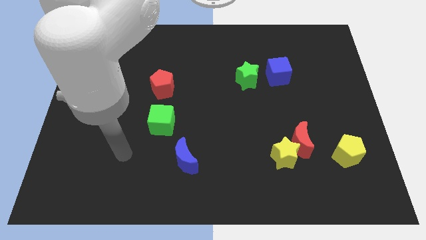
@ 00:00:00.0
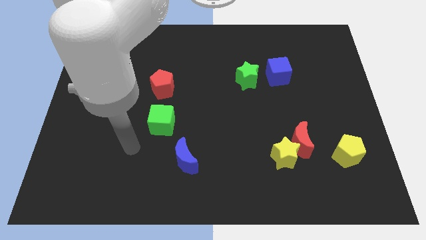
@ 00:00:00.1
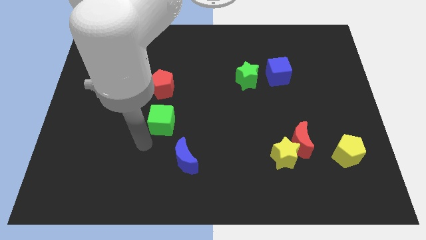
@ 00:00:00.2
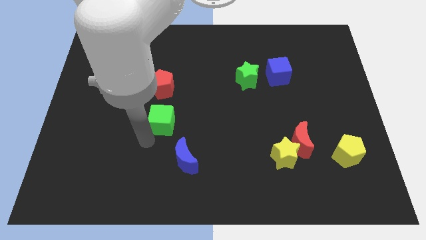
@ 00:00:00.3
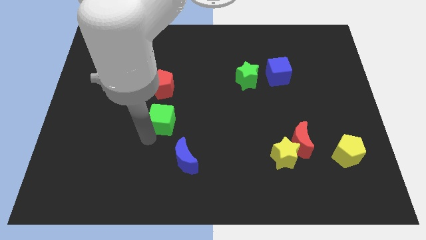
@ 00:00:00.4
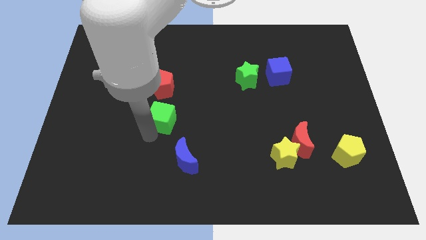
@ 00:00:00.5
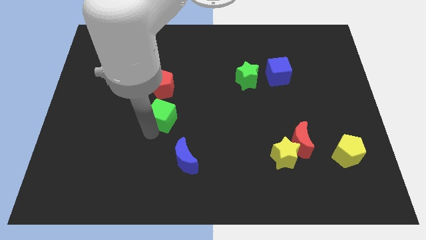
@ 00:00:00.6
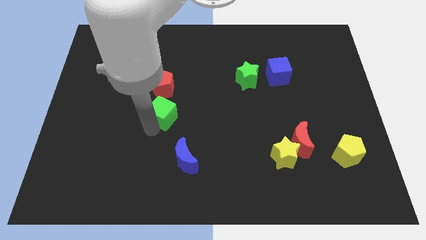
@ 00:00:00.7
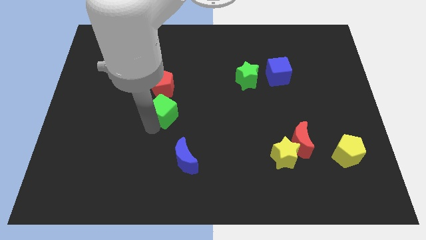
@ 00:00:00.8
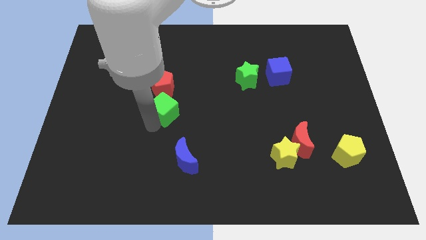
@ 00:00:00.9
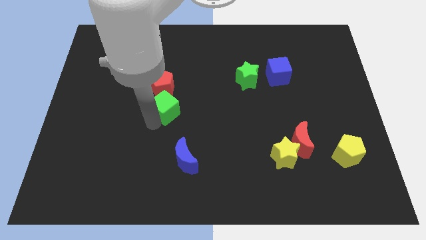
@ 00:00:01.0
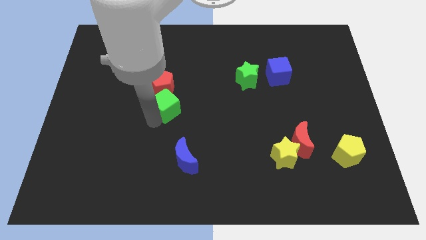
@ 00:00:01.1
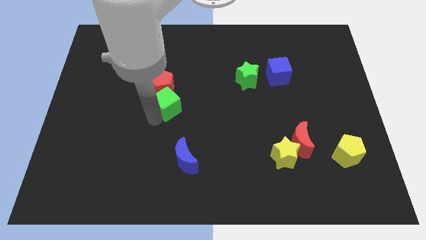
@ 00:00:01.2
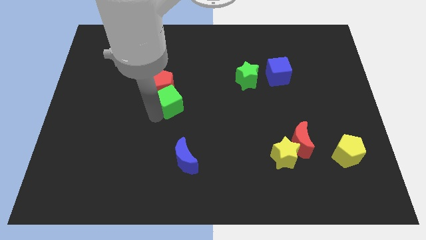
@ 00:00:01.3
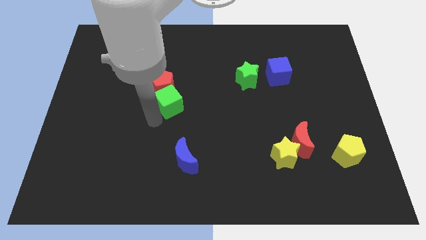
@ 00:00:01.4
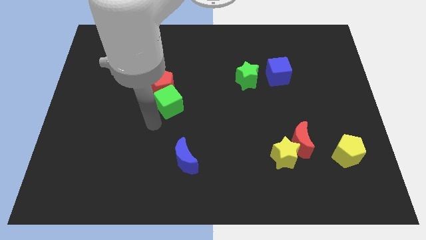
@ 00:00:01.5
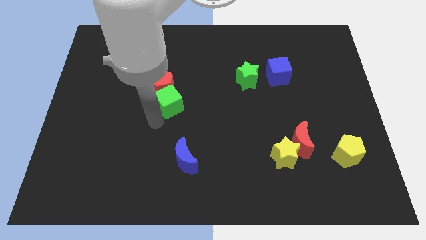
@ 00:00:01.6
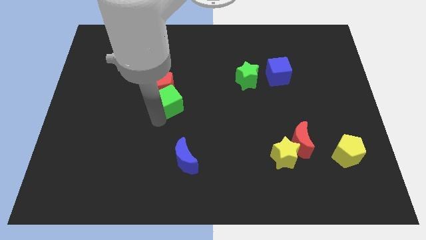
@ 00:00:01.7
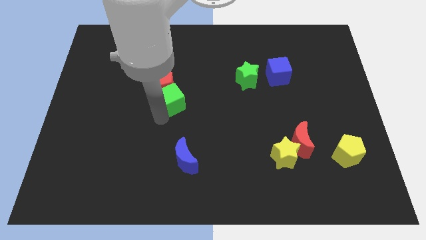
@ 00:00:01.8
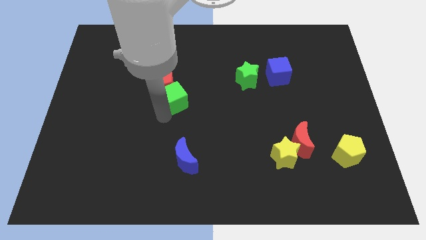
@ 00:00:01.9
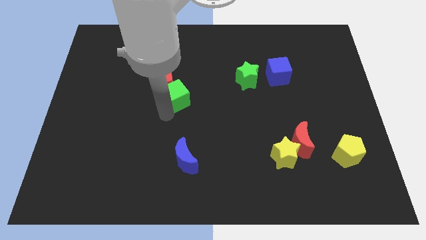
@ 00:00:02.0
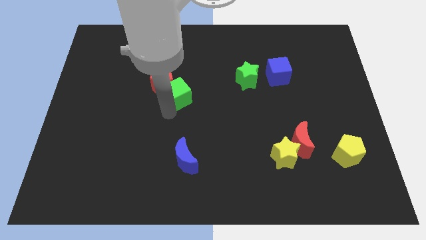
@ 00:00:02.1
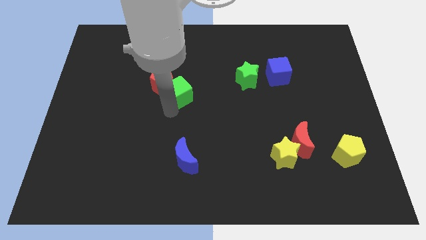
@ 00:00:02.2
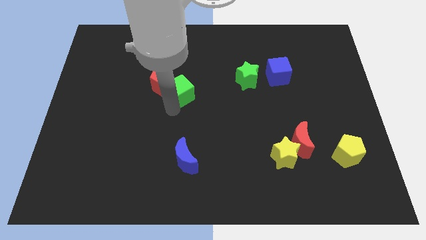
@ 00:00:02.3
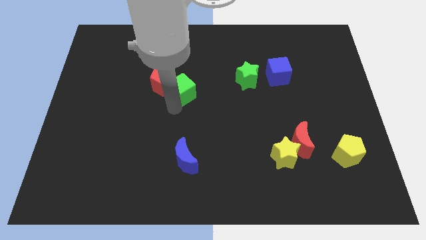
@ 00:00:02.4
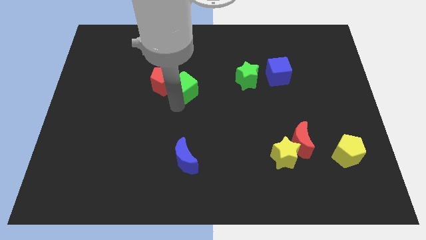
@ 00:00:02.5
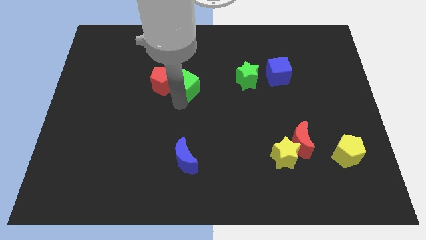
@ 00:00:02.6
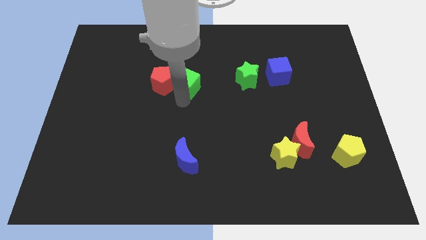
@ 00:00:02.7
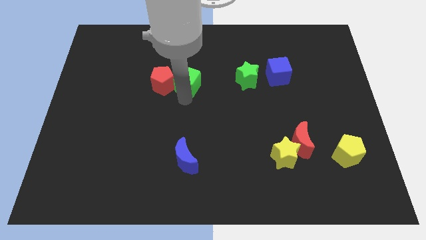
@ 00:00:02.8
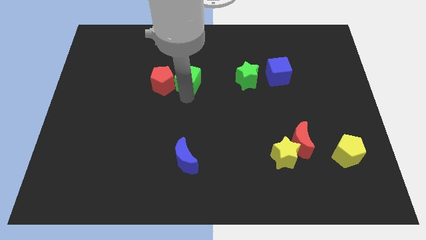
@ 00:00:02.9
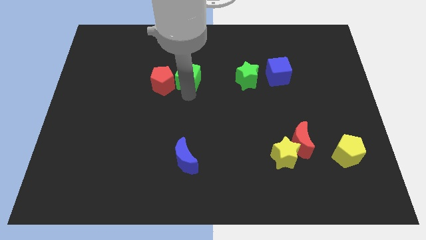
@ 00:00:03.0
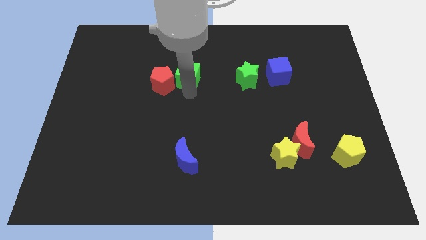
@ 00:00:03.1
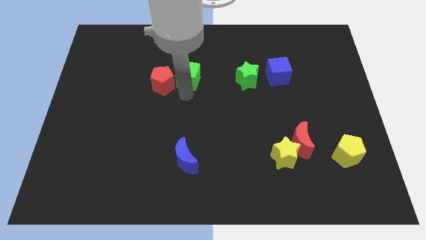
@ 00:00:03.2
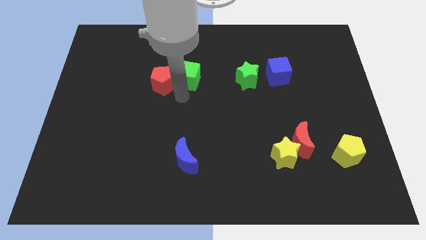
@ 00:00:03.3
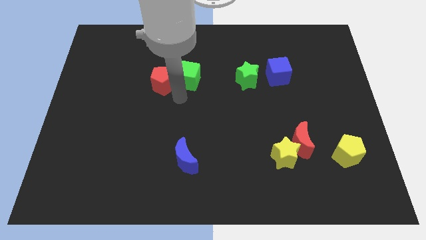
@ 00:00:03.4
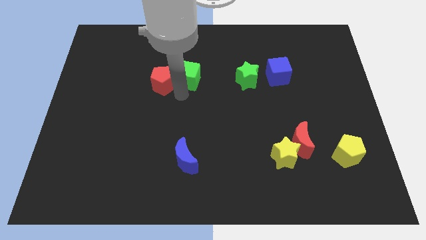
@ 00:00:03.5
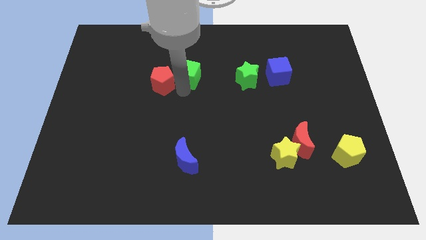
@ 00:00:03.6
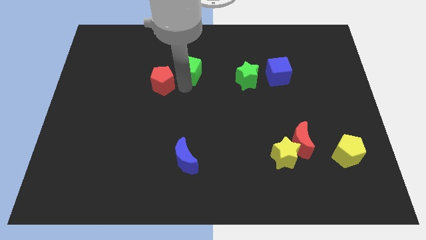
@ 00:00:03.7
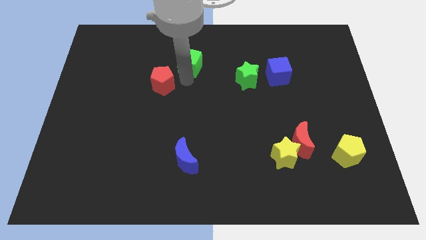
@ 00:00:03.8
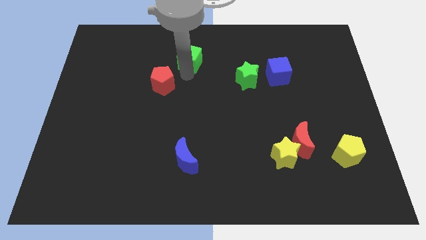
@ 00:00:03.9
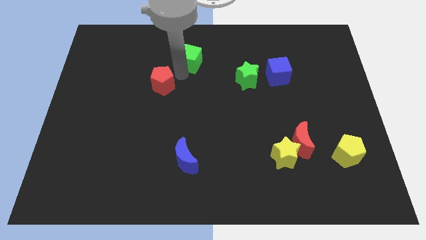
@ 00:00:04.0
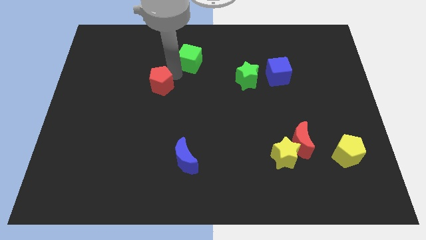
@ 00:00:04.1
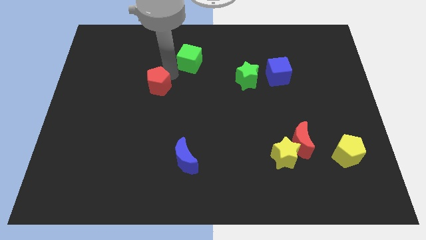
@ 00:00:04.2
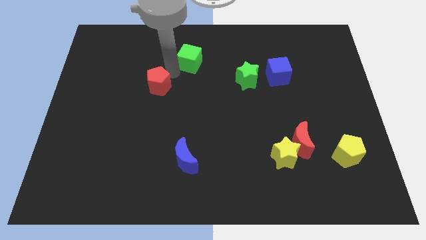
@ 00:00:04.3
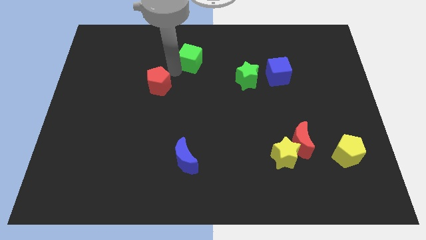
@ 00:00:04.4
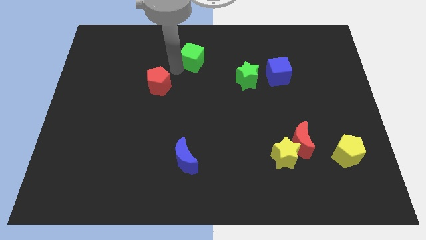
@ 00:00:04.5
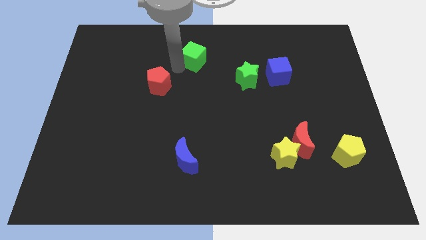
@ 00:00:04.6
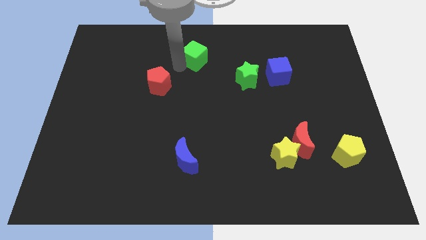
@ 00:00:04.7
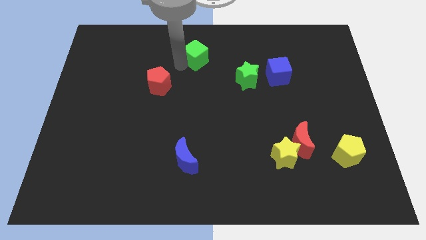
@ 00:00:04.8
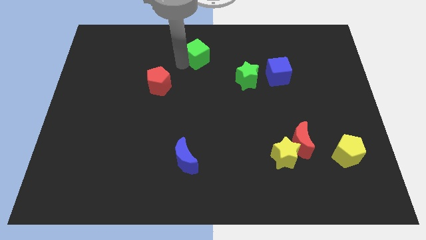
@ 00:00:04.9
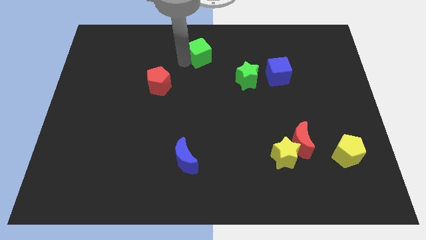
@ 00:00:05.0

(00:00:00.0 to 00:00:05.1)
put the green cube to the top side

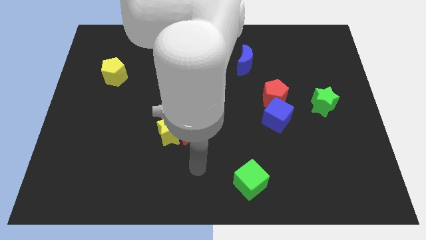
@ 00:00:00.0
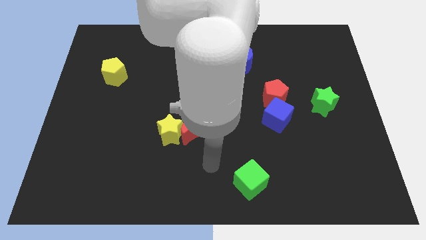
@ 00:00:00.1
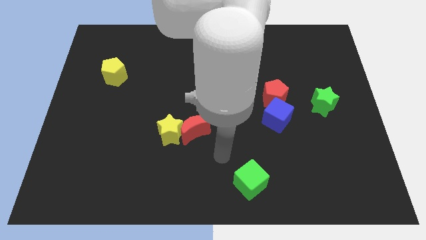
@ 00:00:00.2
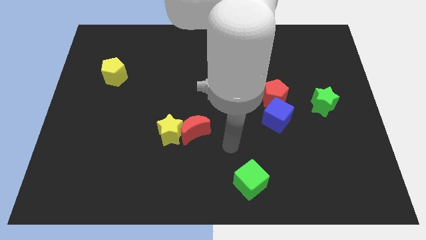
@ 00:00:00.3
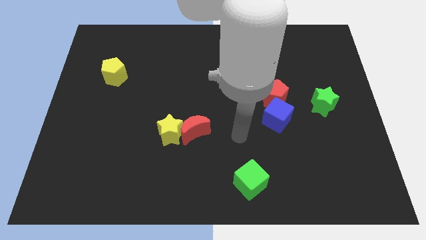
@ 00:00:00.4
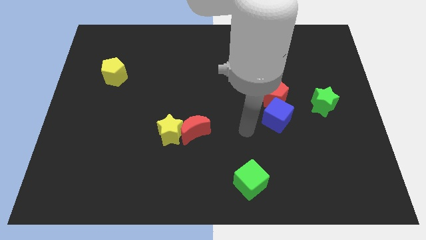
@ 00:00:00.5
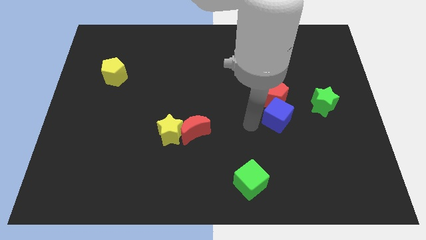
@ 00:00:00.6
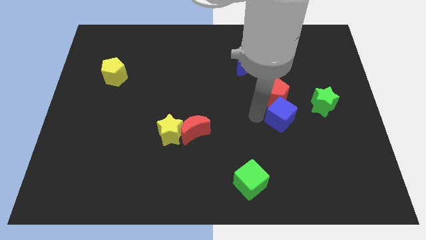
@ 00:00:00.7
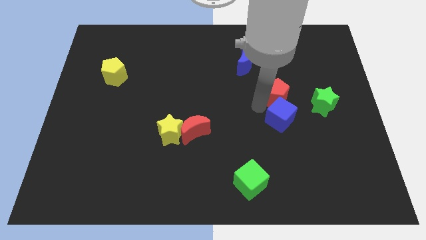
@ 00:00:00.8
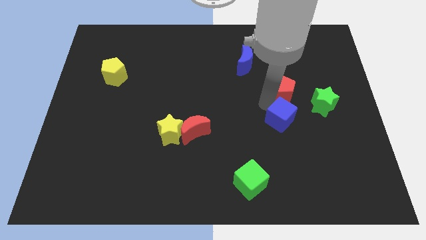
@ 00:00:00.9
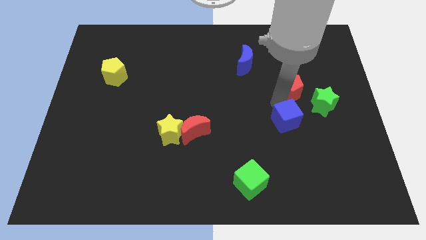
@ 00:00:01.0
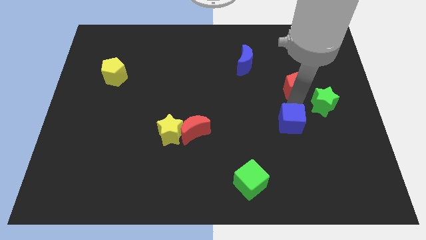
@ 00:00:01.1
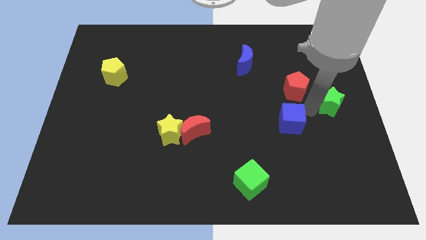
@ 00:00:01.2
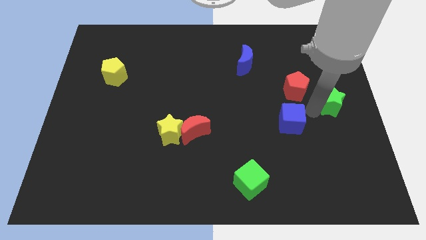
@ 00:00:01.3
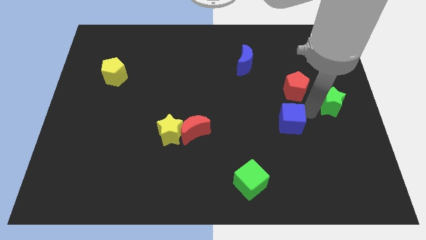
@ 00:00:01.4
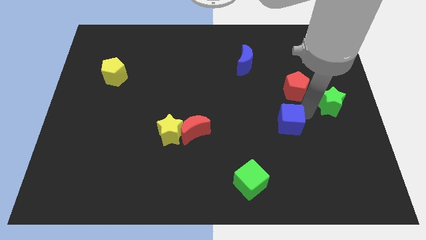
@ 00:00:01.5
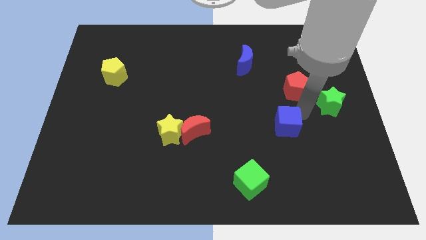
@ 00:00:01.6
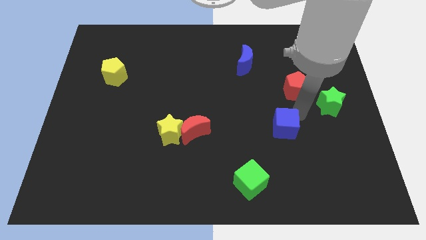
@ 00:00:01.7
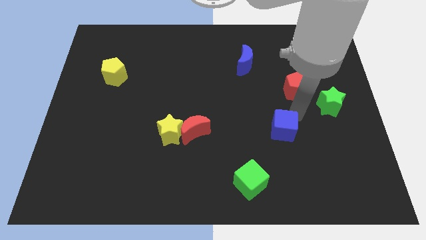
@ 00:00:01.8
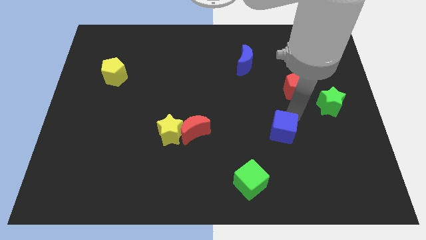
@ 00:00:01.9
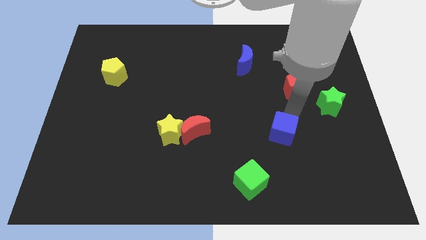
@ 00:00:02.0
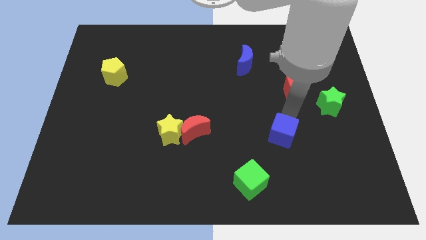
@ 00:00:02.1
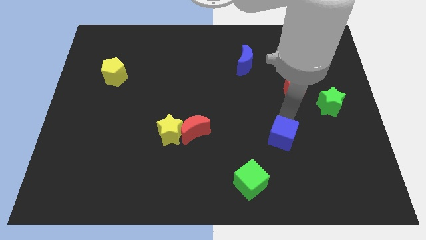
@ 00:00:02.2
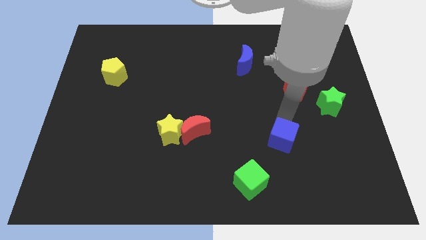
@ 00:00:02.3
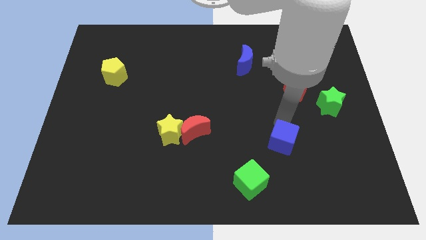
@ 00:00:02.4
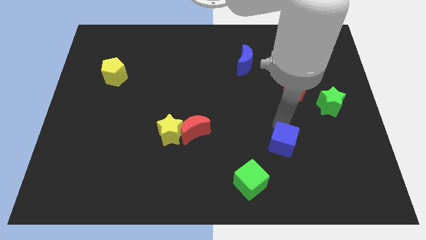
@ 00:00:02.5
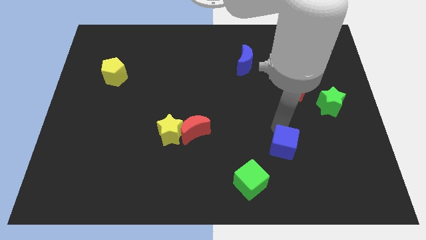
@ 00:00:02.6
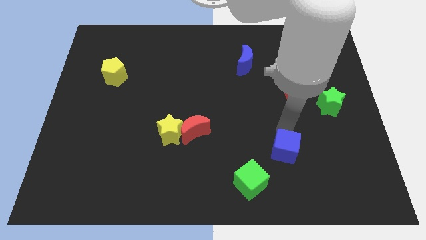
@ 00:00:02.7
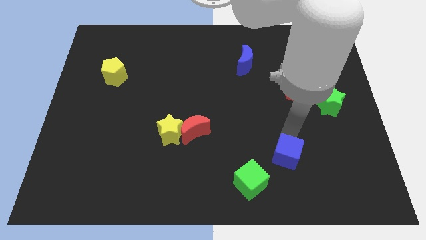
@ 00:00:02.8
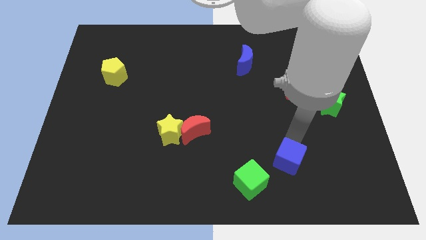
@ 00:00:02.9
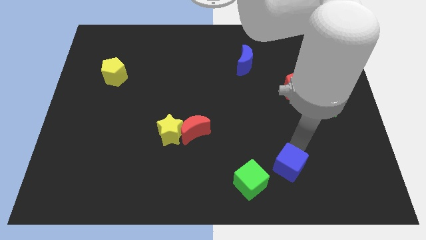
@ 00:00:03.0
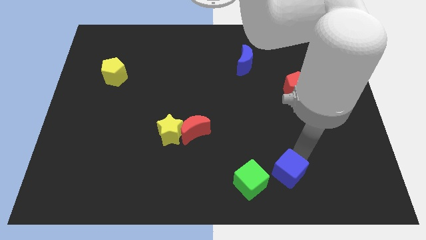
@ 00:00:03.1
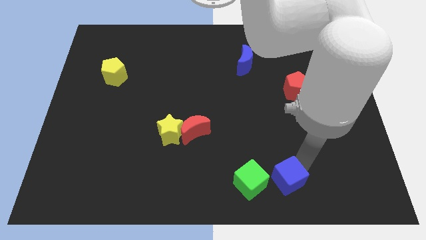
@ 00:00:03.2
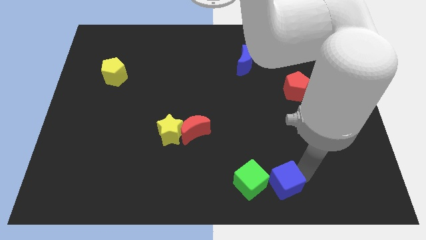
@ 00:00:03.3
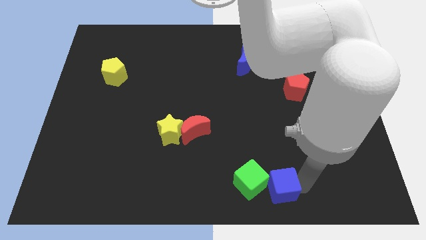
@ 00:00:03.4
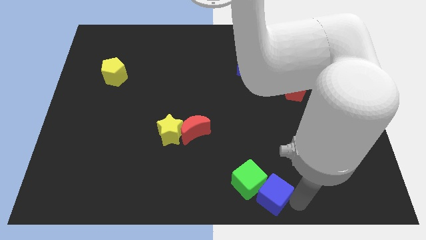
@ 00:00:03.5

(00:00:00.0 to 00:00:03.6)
slide the blue cube to the bottom side
